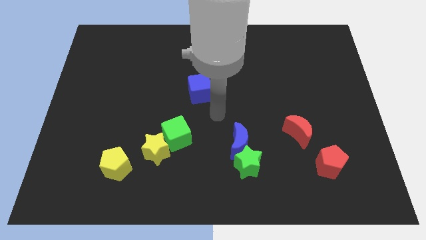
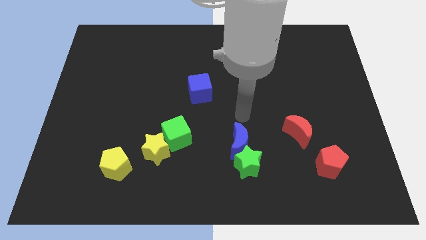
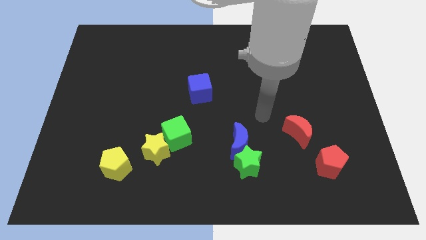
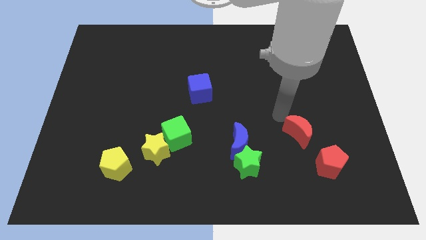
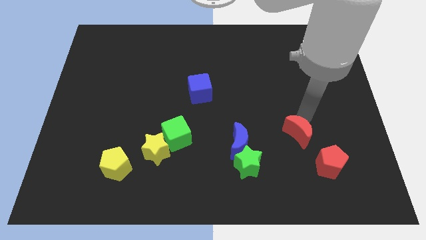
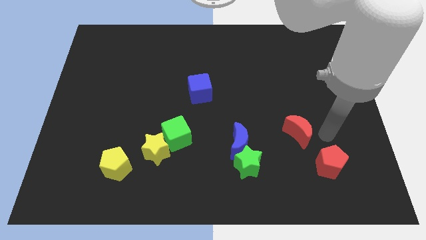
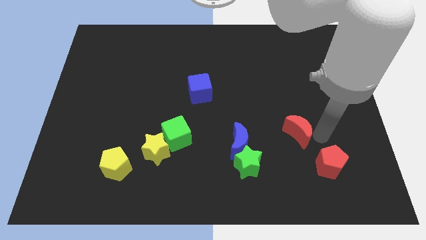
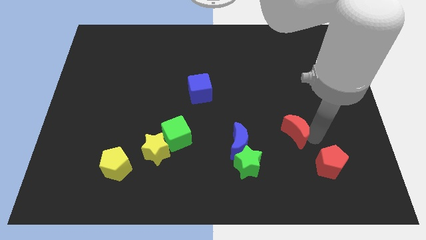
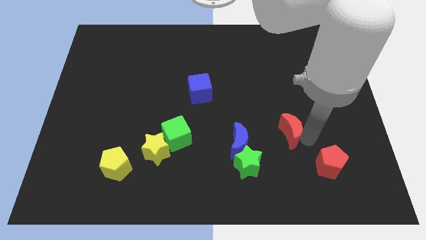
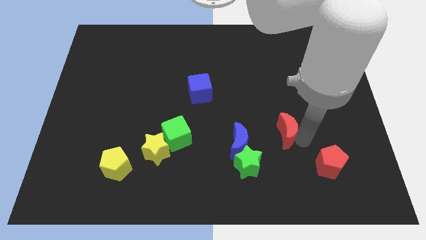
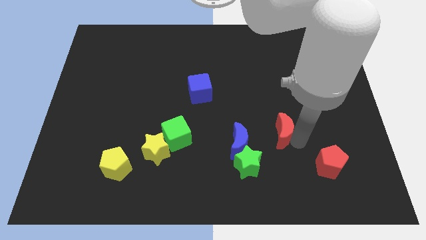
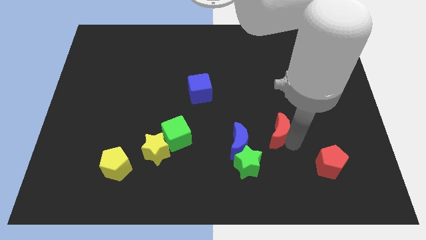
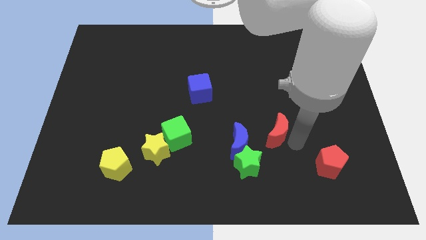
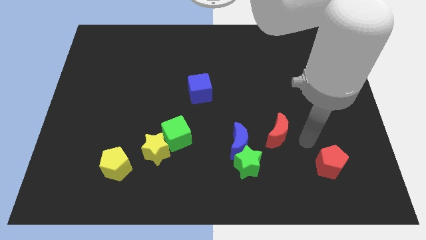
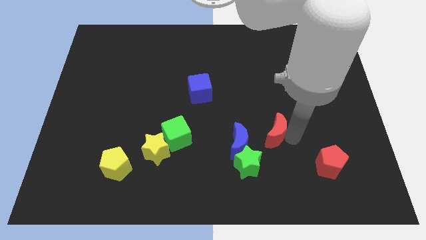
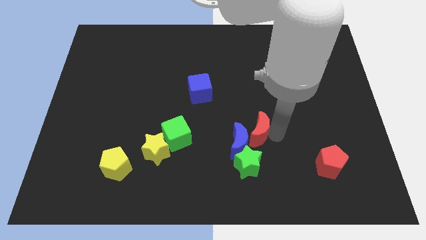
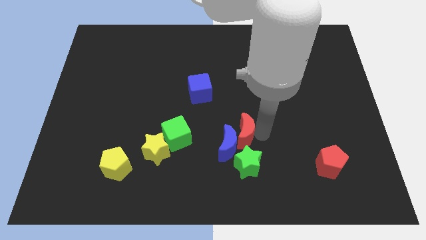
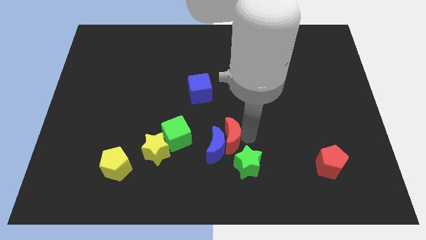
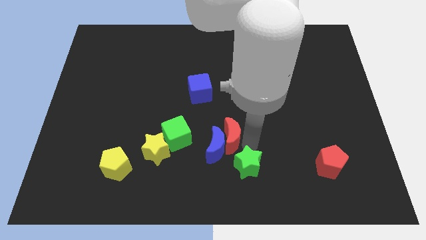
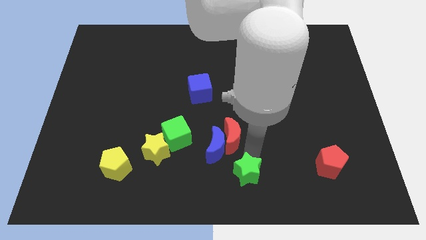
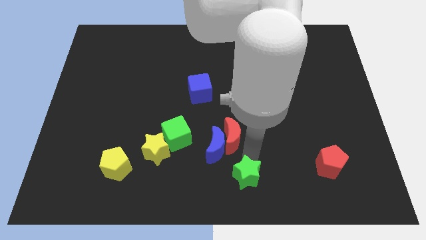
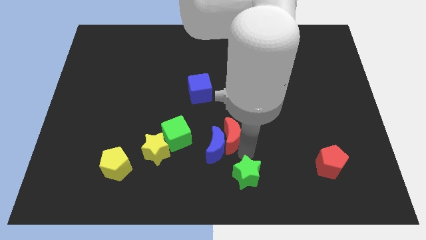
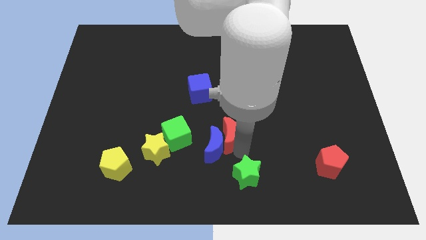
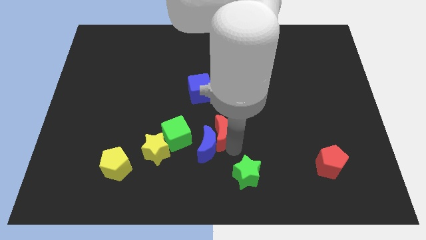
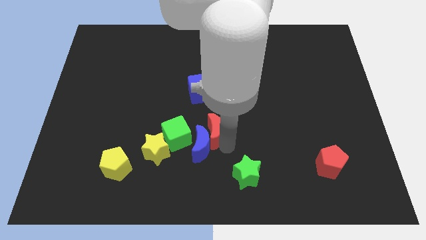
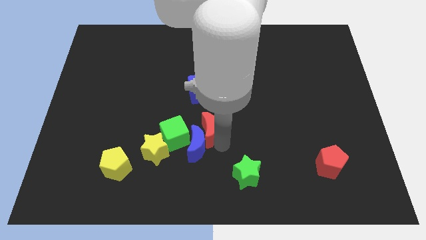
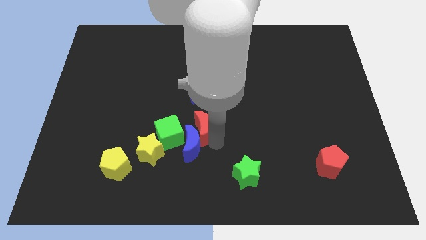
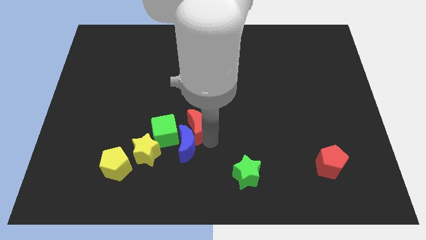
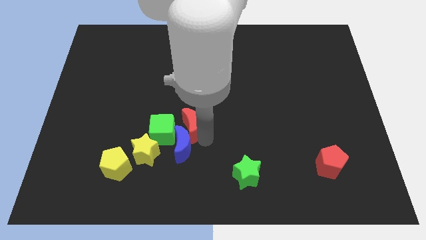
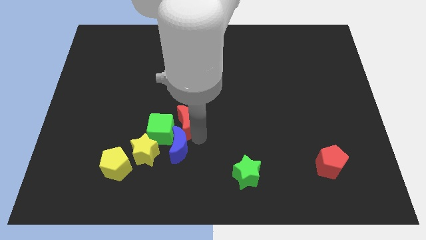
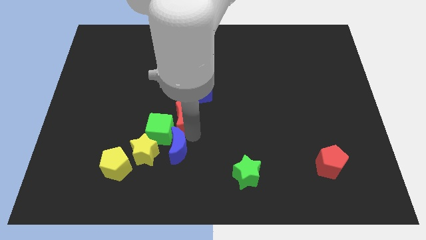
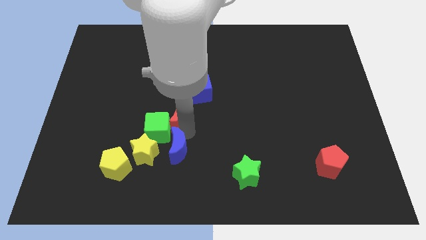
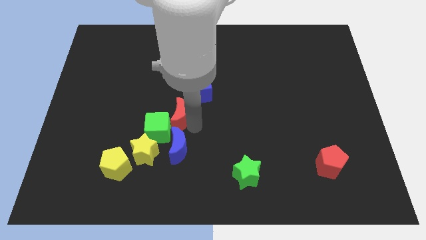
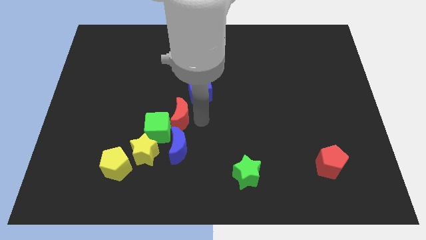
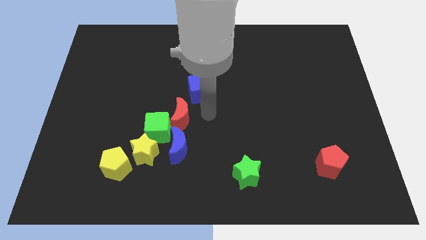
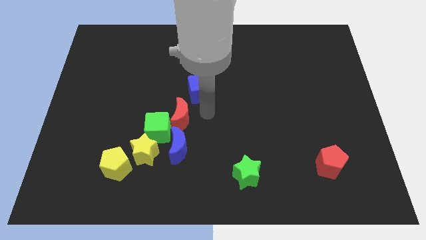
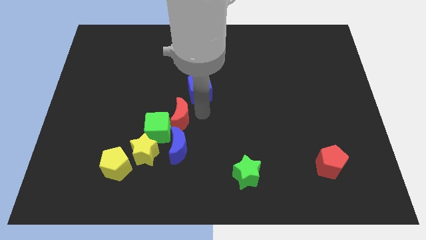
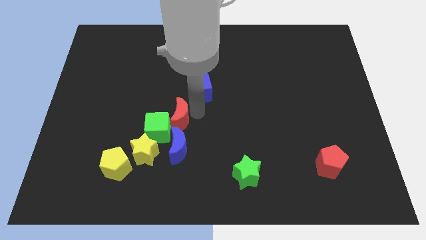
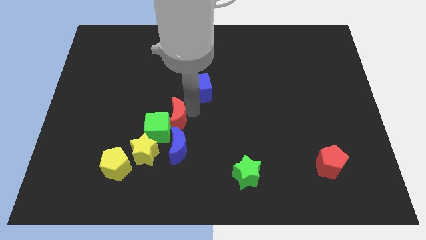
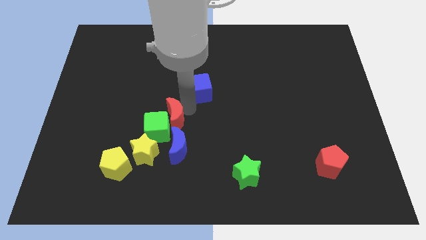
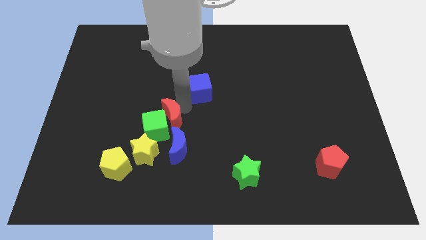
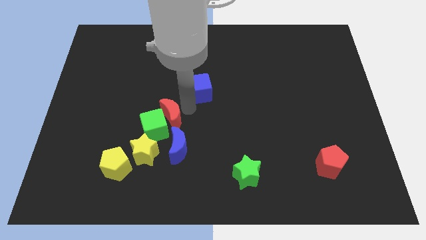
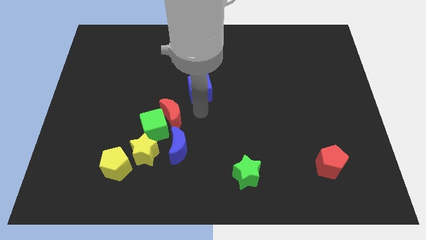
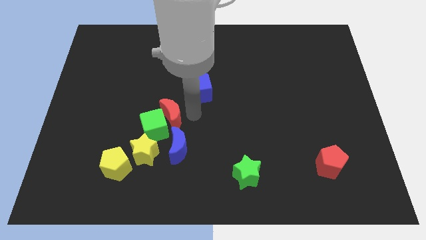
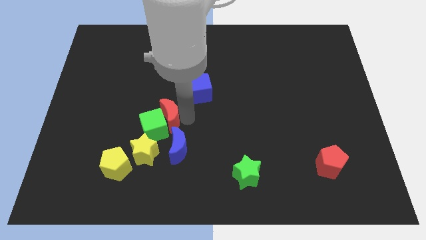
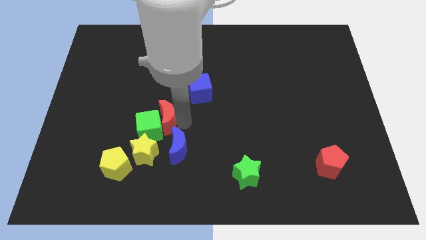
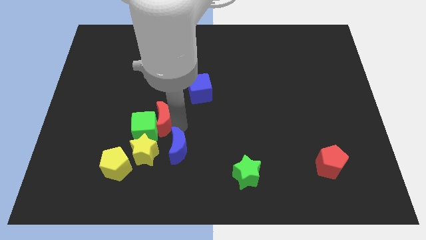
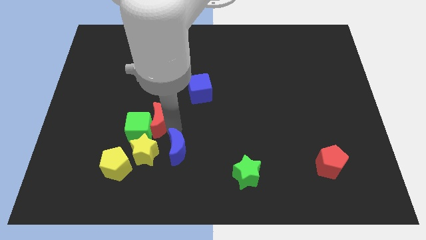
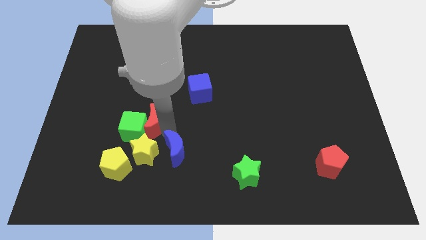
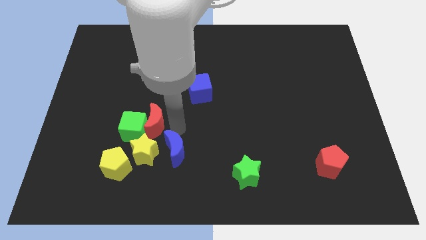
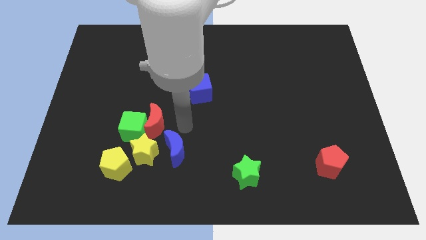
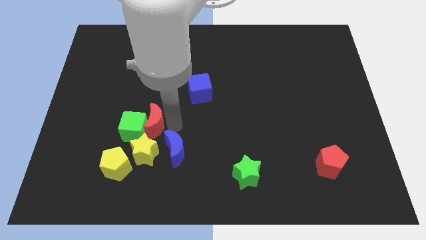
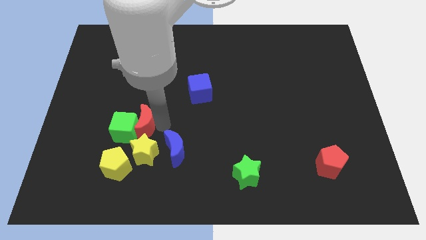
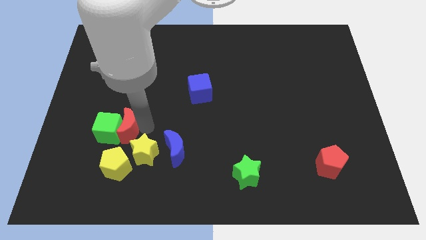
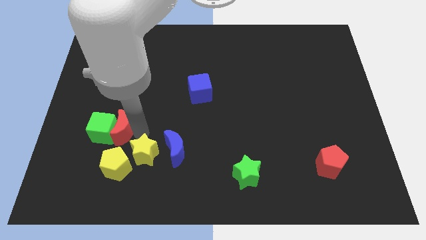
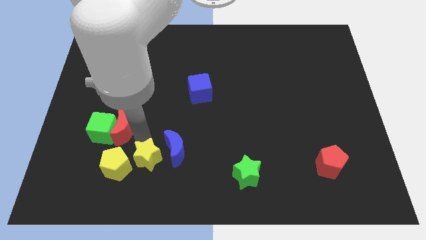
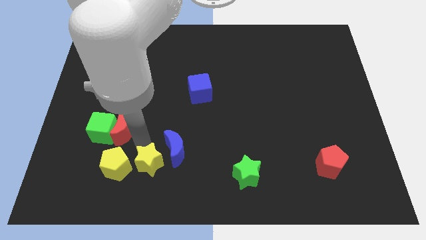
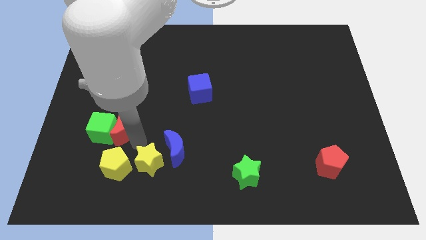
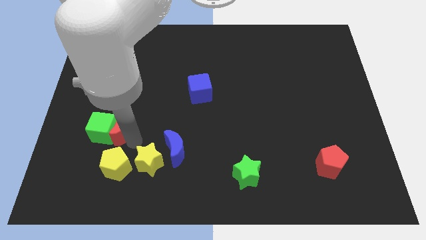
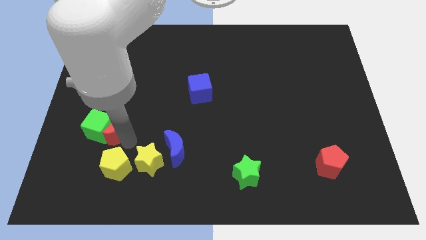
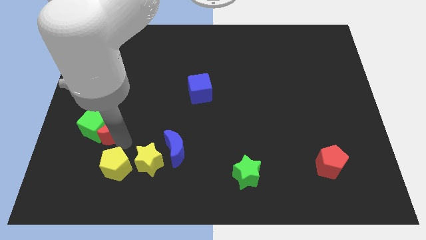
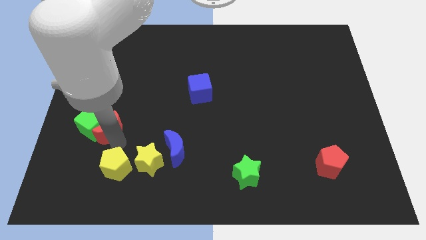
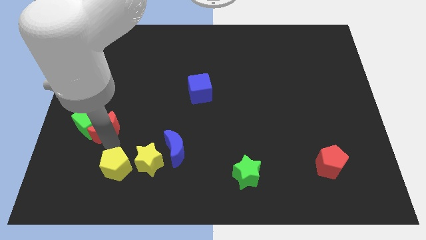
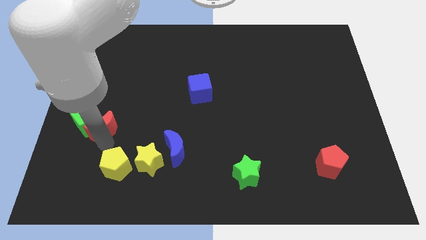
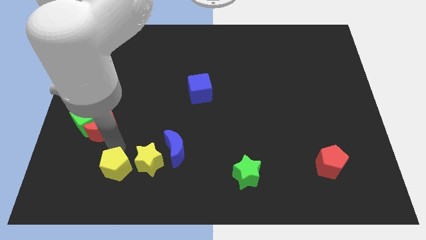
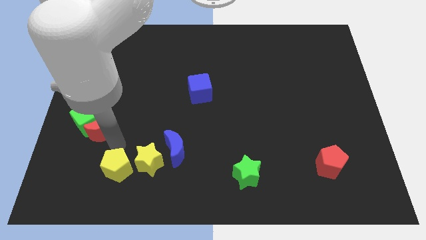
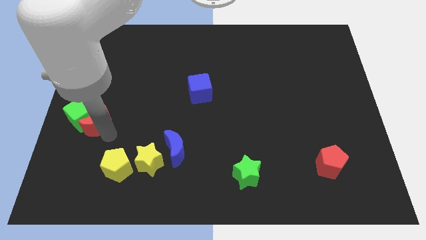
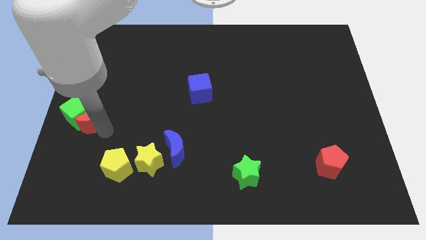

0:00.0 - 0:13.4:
push the red moon to the left side
